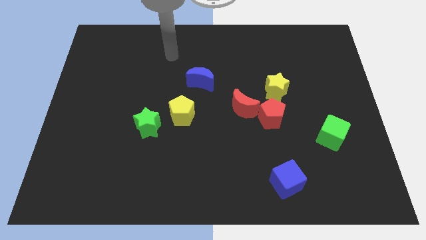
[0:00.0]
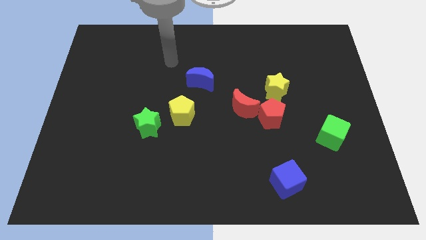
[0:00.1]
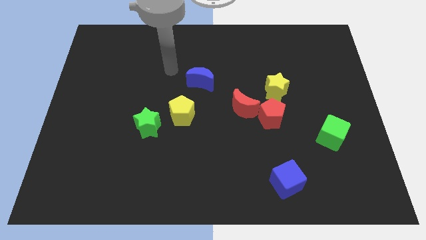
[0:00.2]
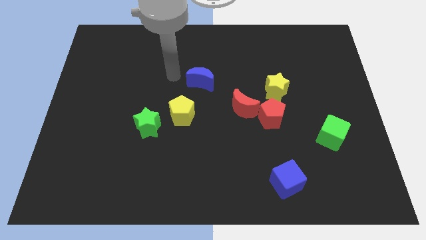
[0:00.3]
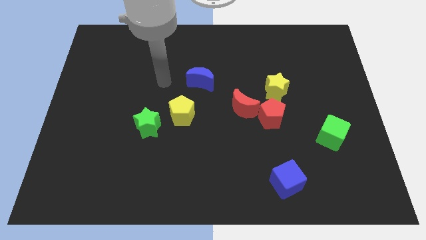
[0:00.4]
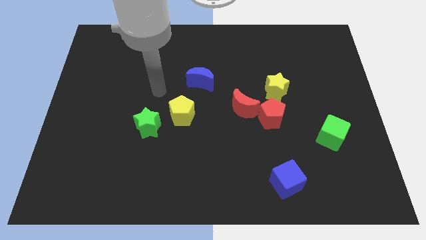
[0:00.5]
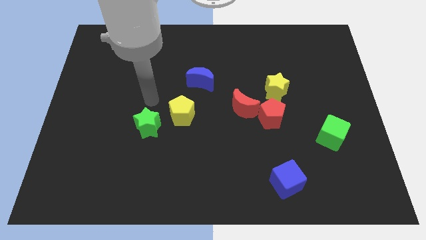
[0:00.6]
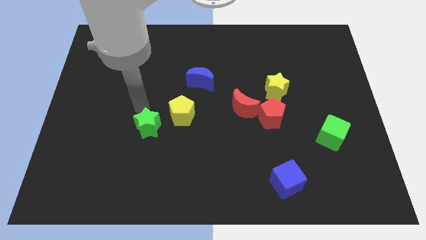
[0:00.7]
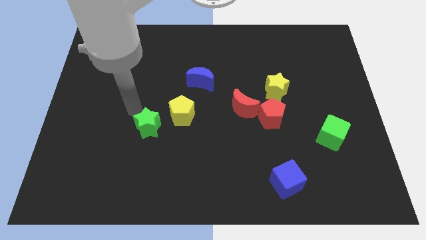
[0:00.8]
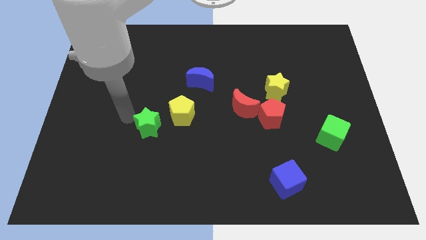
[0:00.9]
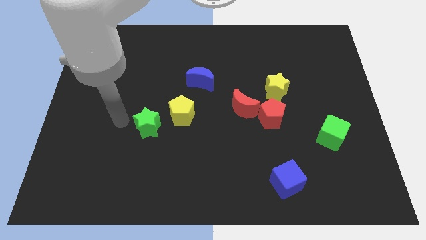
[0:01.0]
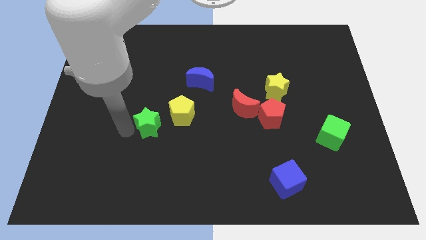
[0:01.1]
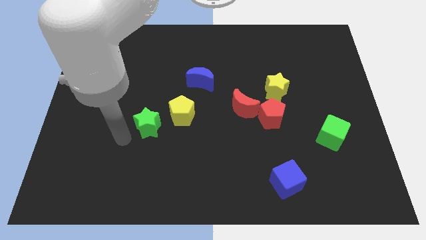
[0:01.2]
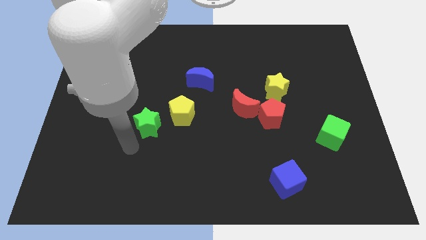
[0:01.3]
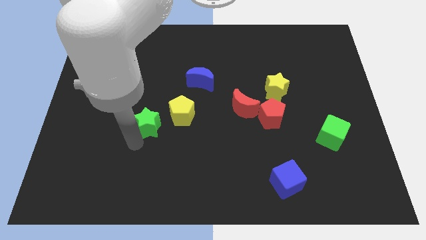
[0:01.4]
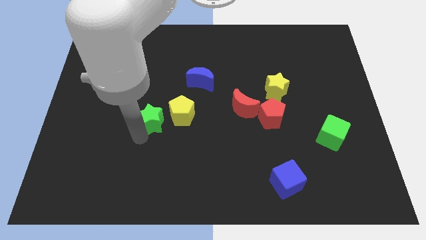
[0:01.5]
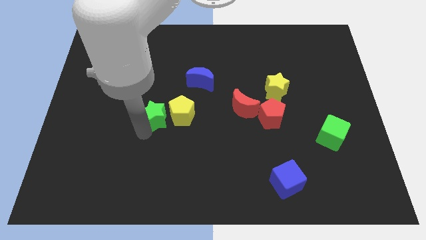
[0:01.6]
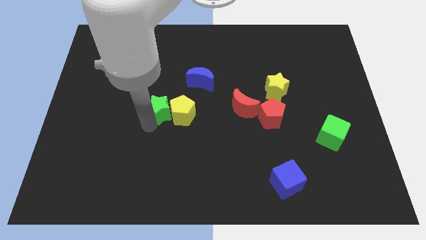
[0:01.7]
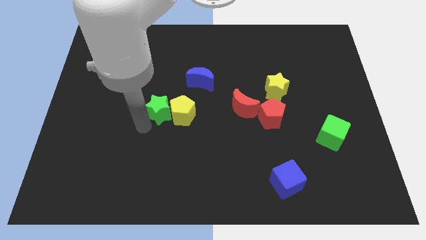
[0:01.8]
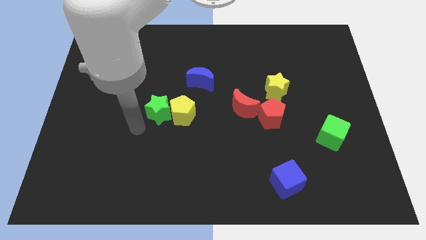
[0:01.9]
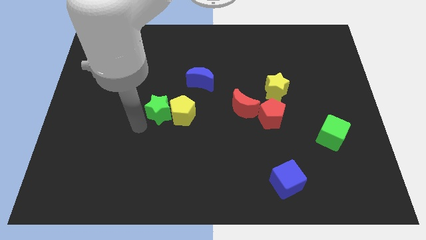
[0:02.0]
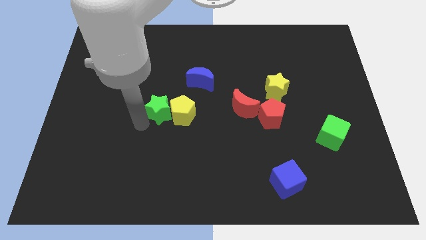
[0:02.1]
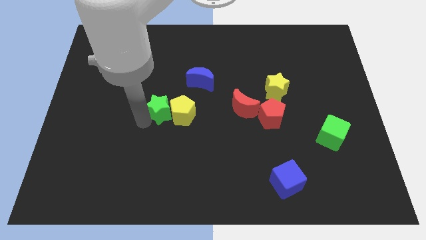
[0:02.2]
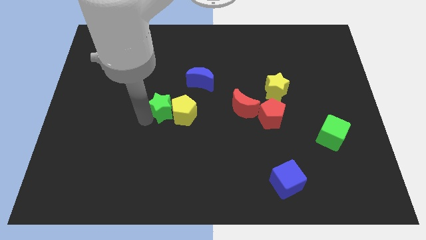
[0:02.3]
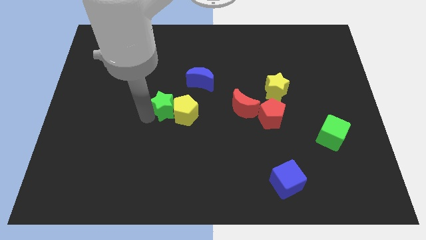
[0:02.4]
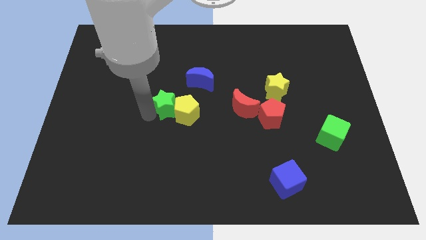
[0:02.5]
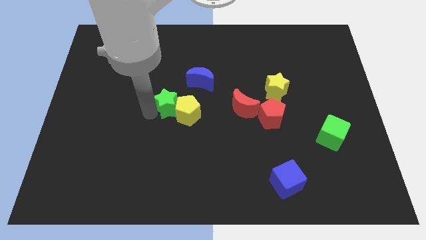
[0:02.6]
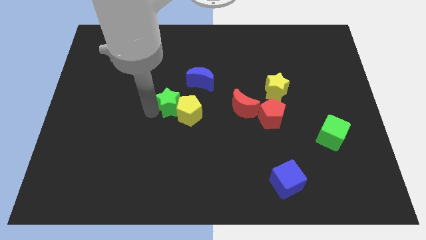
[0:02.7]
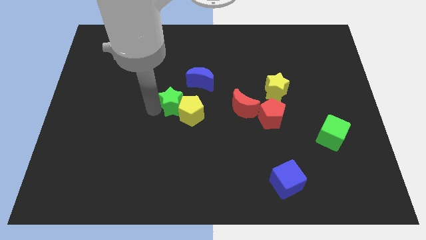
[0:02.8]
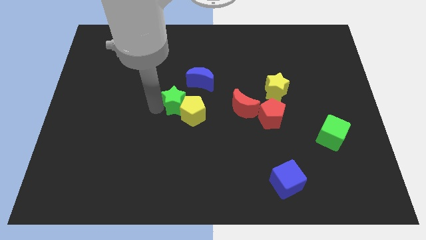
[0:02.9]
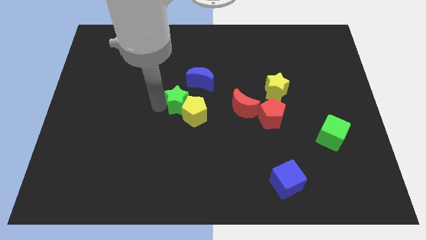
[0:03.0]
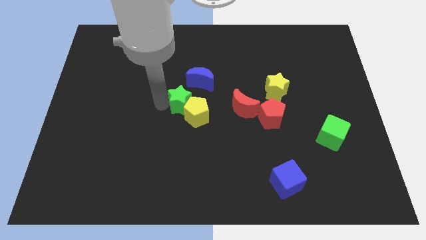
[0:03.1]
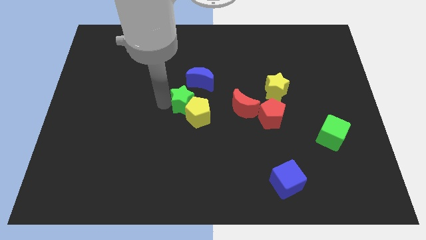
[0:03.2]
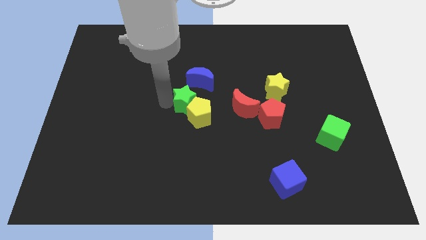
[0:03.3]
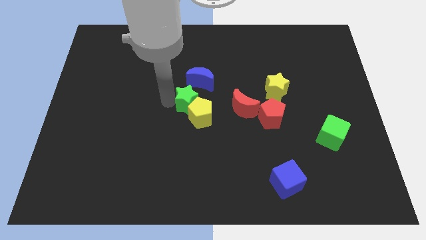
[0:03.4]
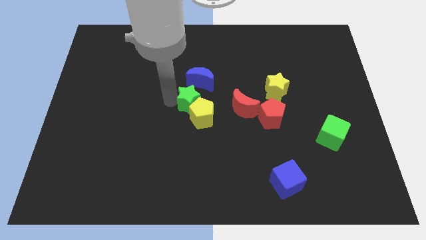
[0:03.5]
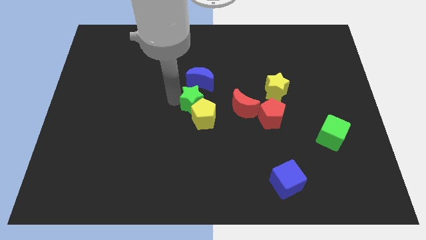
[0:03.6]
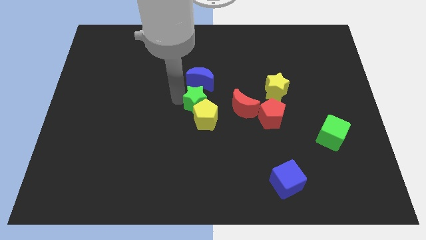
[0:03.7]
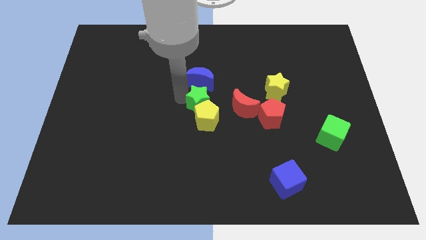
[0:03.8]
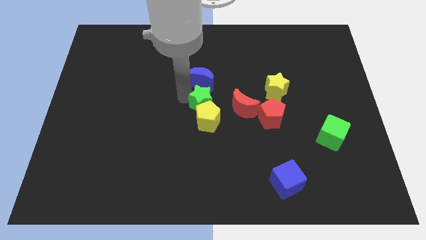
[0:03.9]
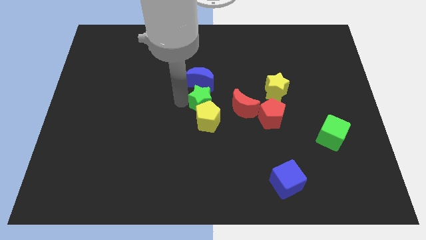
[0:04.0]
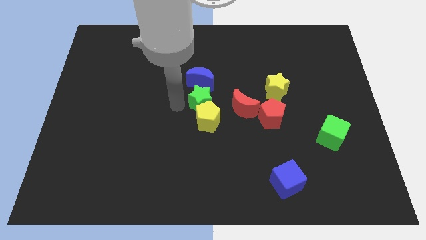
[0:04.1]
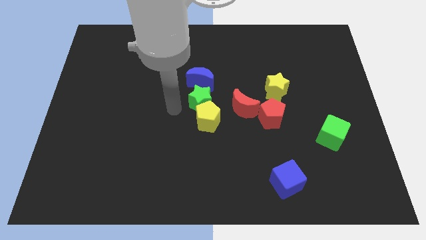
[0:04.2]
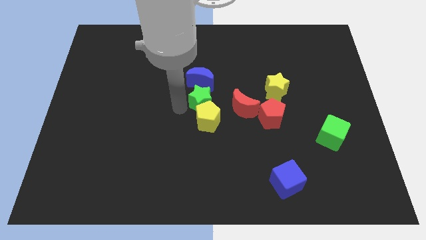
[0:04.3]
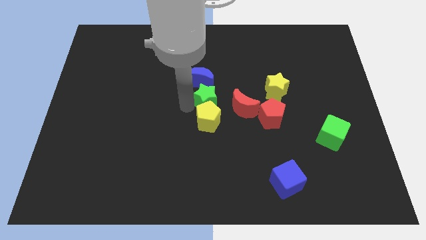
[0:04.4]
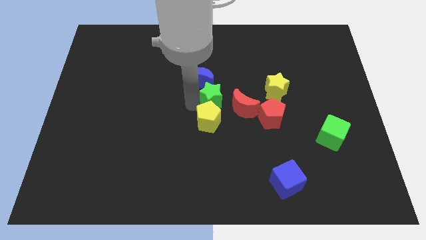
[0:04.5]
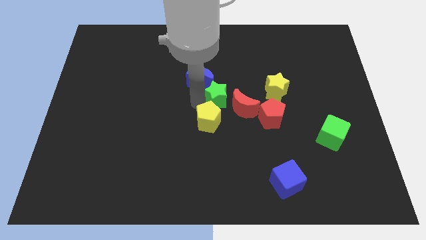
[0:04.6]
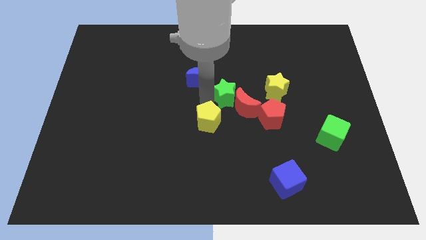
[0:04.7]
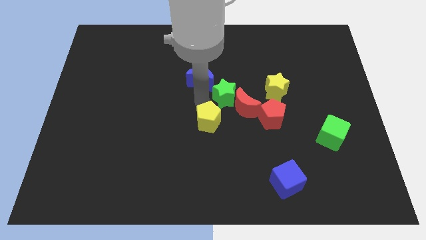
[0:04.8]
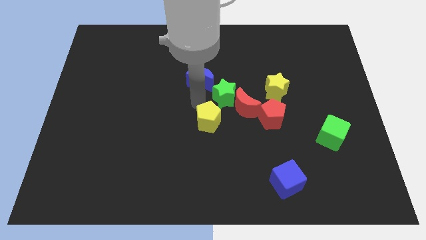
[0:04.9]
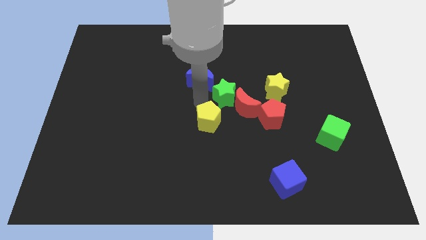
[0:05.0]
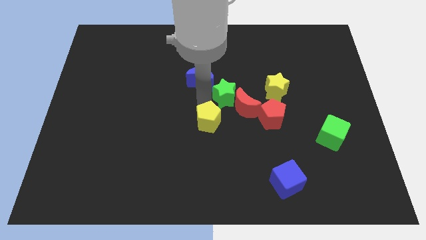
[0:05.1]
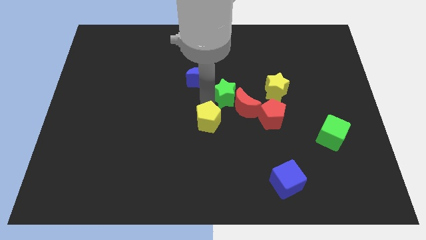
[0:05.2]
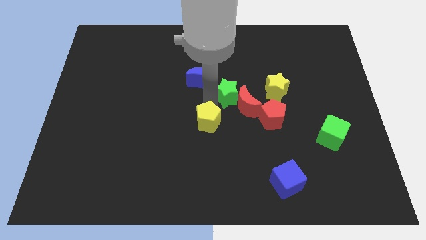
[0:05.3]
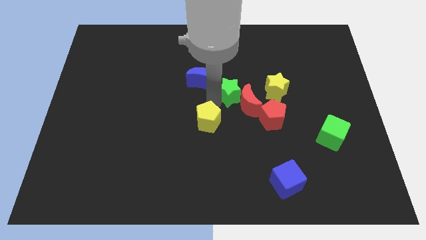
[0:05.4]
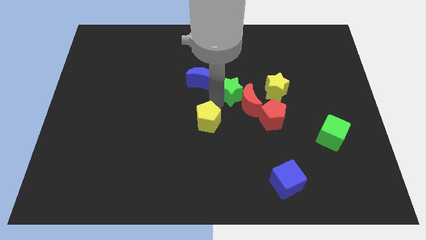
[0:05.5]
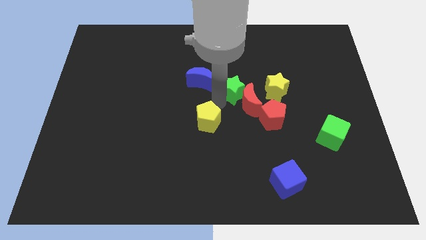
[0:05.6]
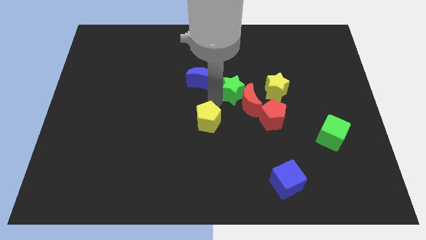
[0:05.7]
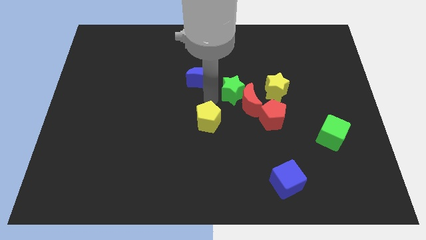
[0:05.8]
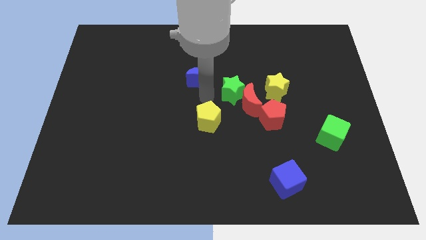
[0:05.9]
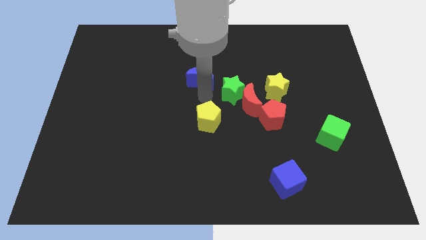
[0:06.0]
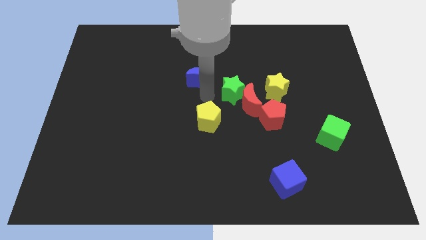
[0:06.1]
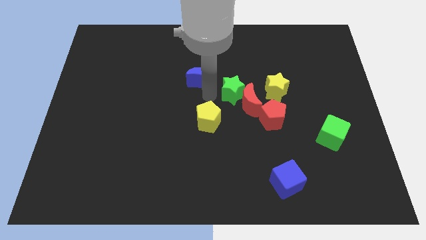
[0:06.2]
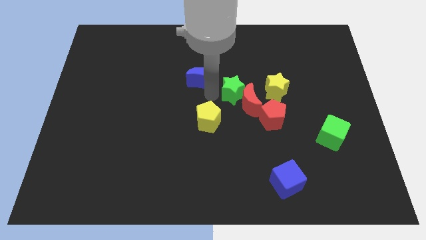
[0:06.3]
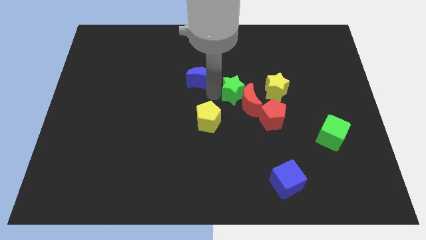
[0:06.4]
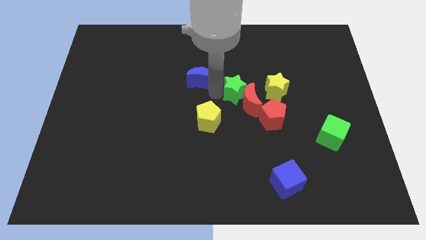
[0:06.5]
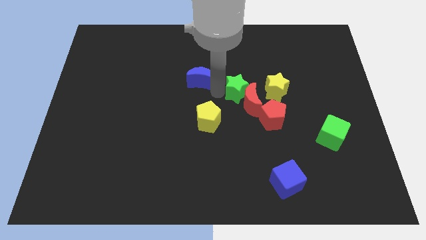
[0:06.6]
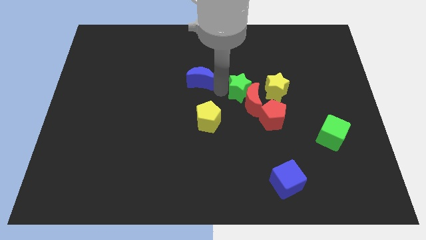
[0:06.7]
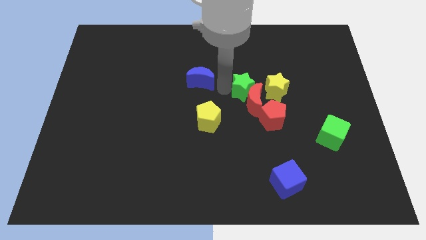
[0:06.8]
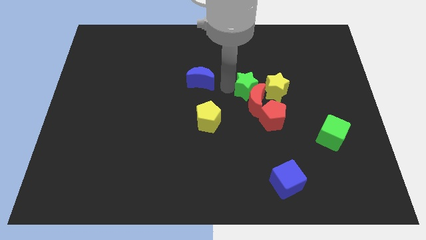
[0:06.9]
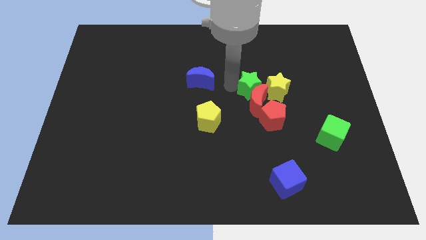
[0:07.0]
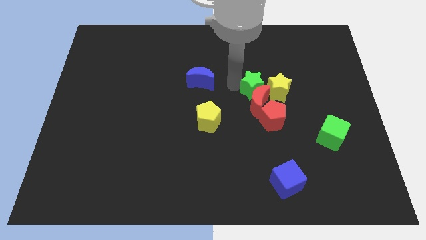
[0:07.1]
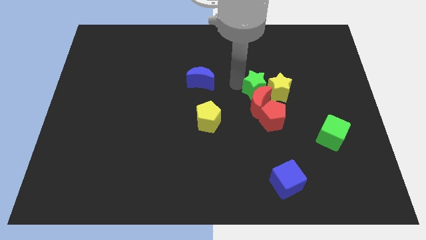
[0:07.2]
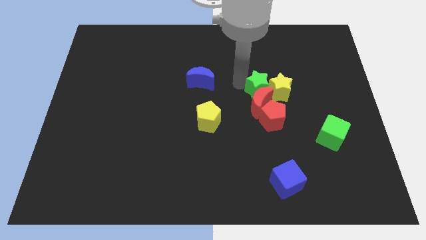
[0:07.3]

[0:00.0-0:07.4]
push the green star to the yellow star
